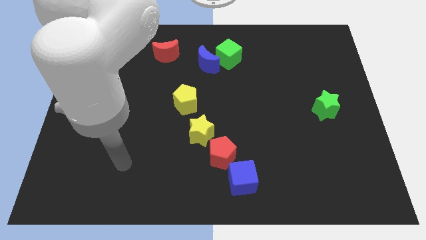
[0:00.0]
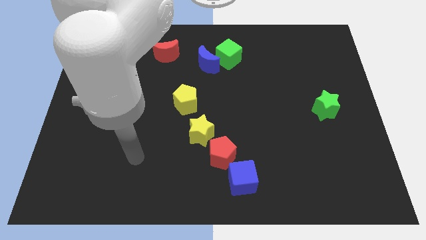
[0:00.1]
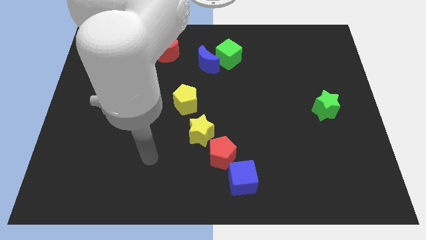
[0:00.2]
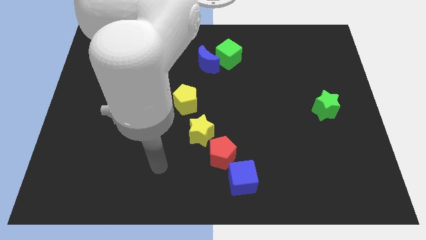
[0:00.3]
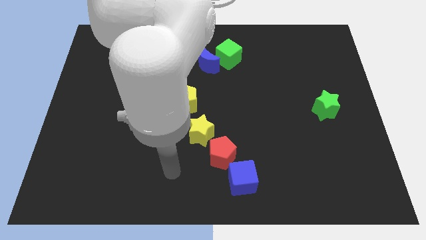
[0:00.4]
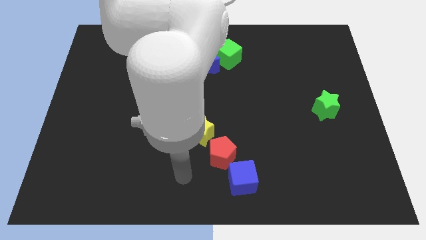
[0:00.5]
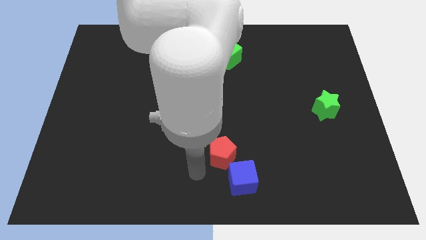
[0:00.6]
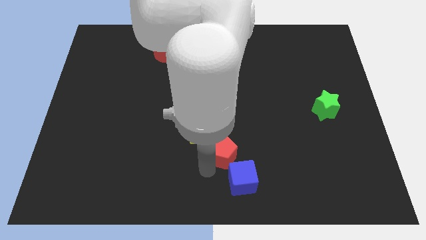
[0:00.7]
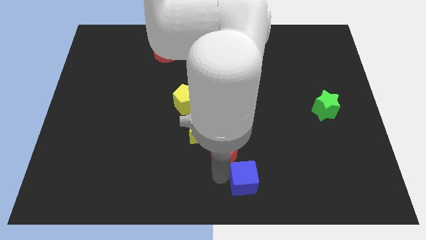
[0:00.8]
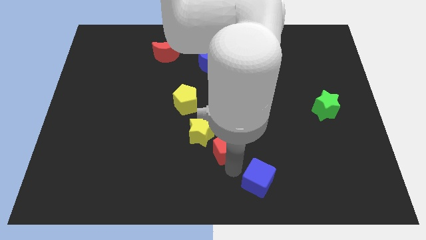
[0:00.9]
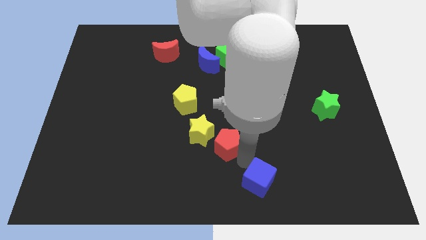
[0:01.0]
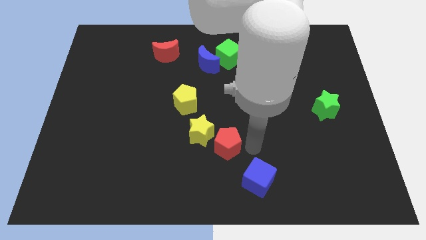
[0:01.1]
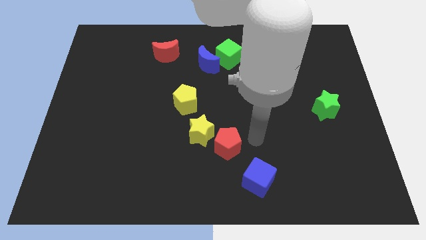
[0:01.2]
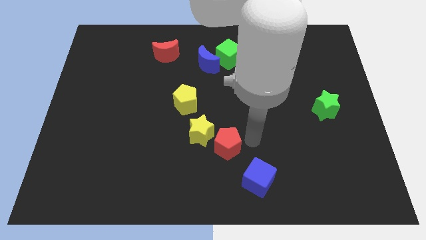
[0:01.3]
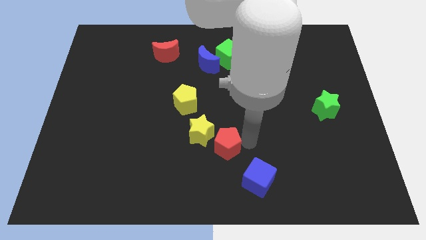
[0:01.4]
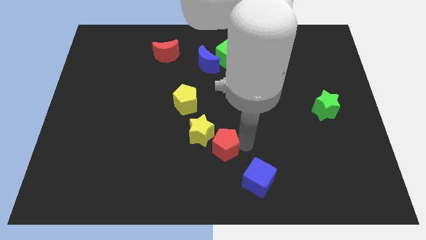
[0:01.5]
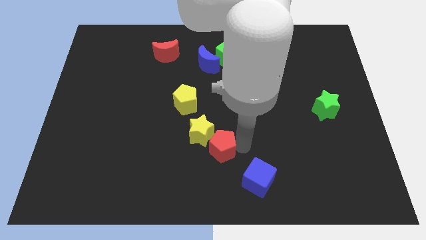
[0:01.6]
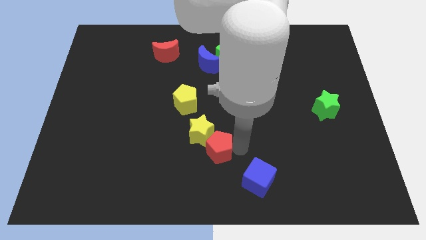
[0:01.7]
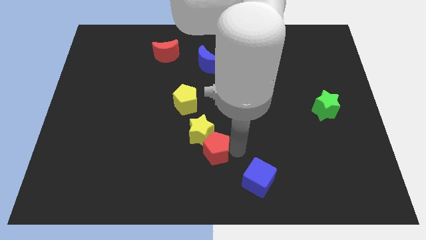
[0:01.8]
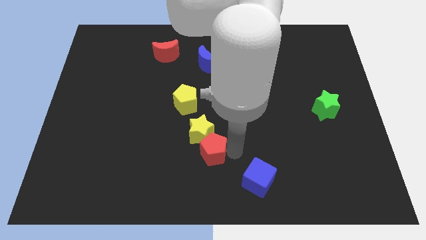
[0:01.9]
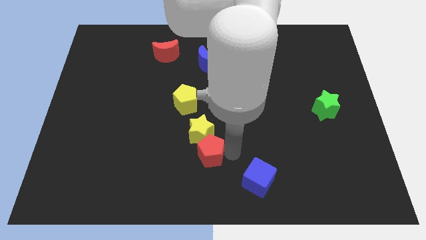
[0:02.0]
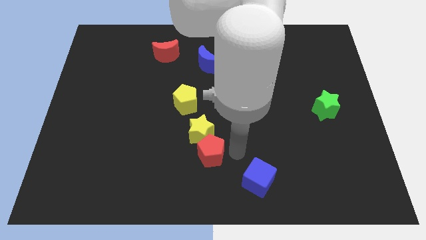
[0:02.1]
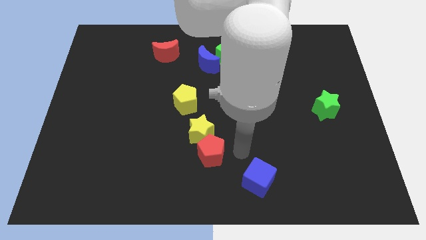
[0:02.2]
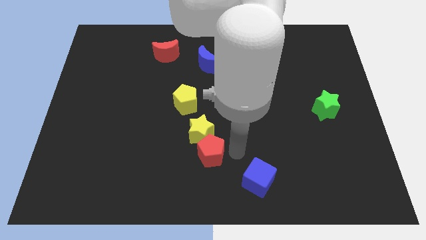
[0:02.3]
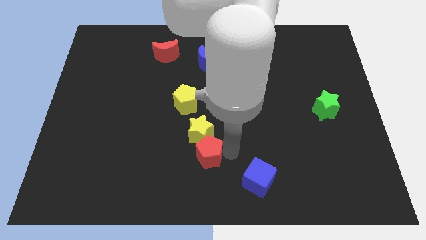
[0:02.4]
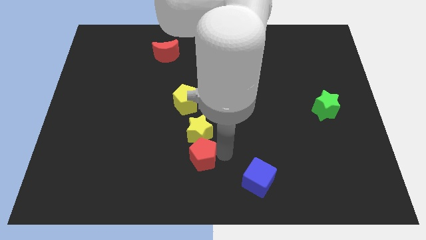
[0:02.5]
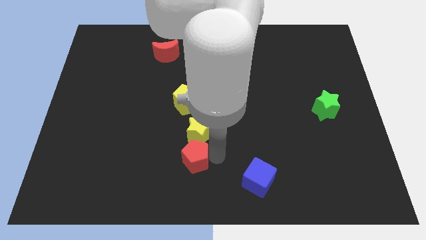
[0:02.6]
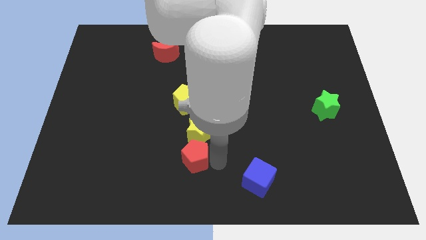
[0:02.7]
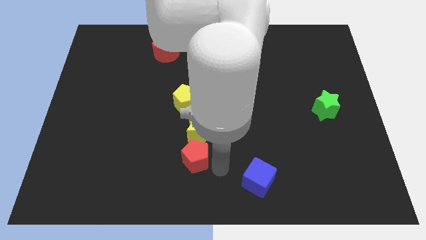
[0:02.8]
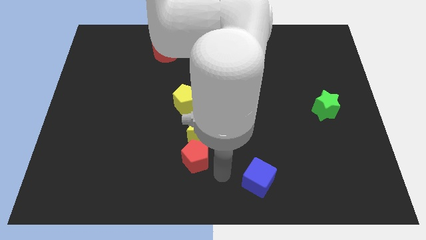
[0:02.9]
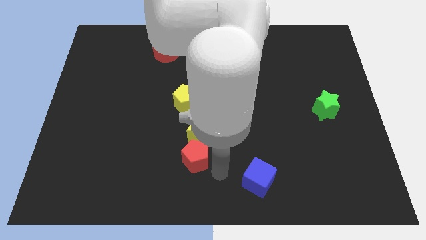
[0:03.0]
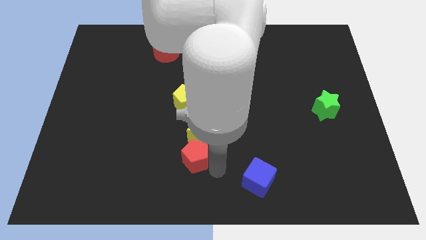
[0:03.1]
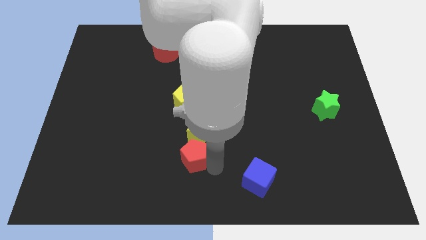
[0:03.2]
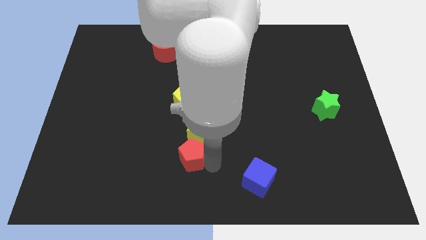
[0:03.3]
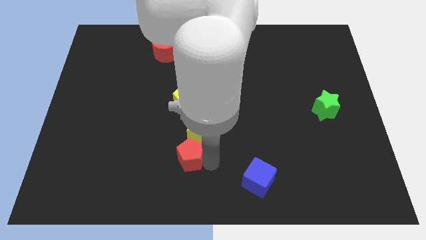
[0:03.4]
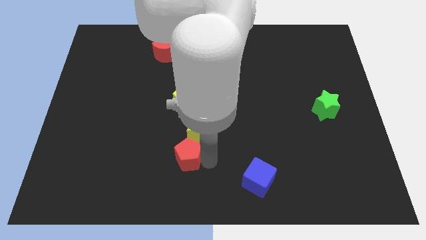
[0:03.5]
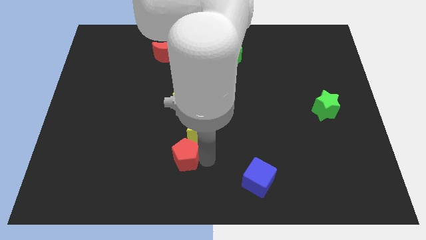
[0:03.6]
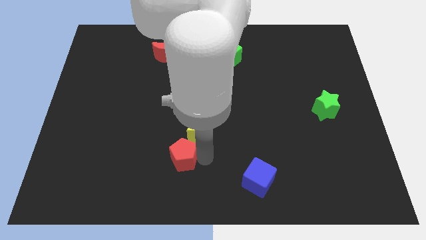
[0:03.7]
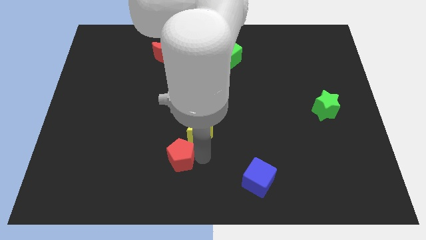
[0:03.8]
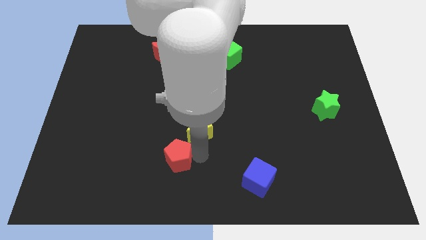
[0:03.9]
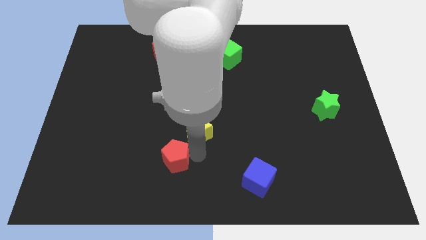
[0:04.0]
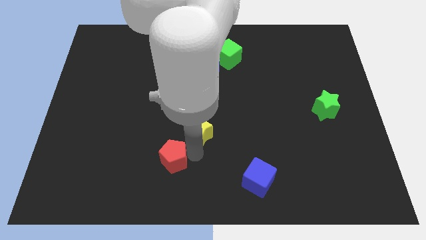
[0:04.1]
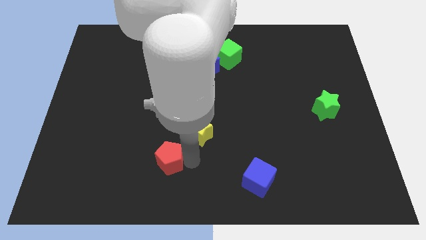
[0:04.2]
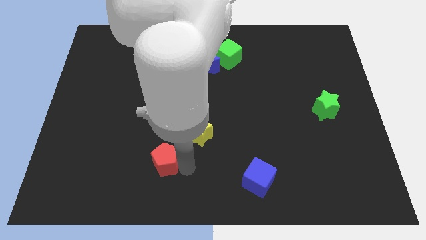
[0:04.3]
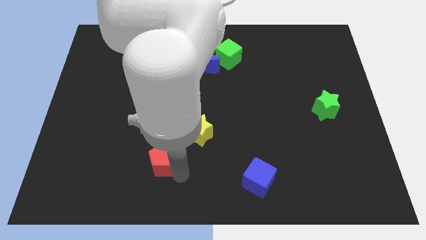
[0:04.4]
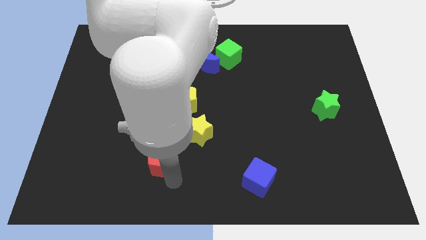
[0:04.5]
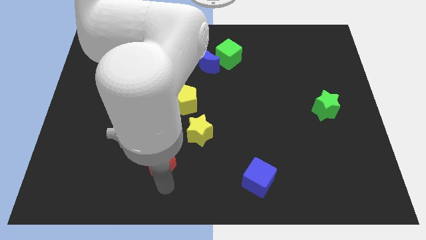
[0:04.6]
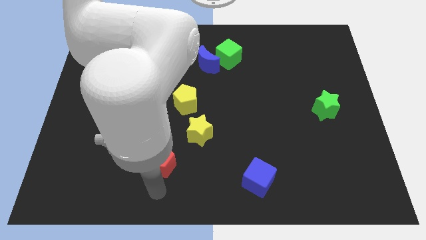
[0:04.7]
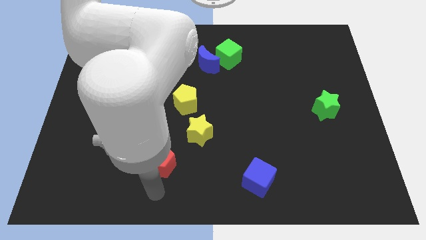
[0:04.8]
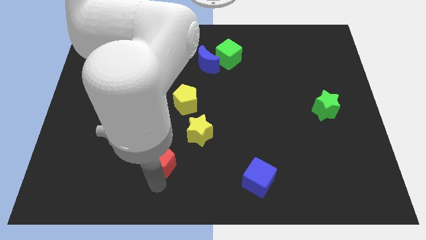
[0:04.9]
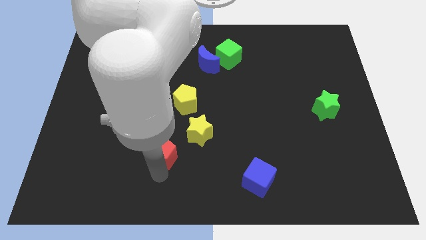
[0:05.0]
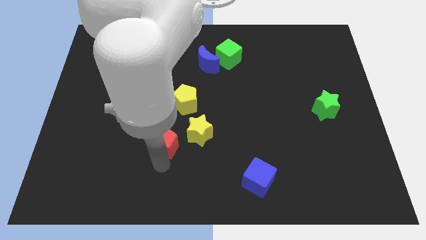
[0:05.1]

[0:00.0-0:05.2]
slightly push the red pentagon upwards and to the left

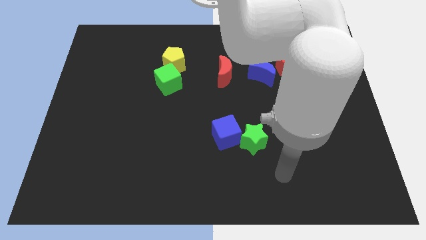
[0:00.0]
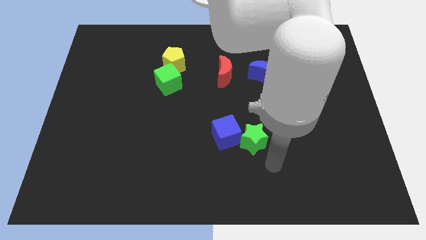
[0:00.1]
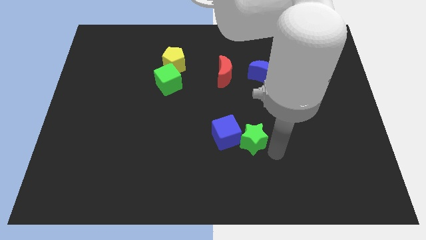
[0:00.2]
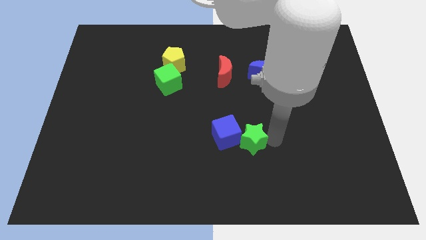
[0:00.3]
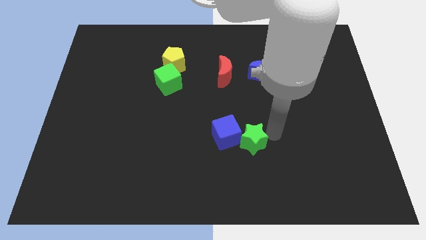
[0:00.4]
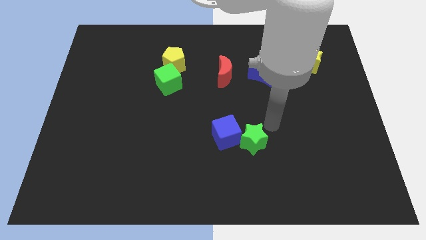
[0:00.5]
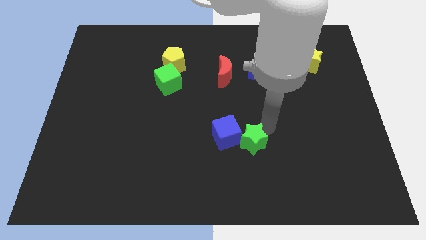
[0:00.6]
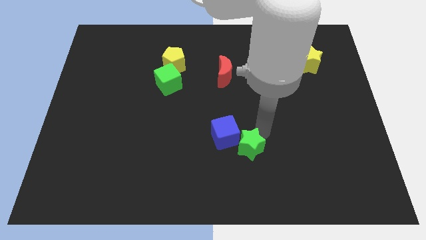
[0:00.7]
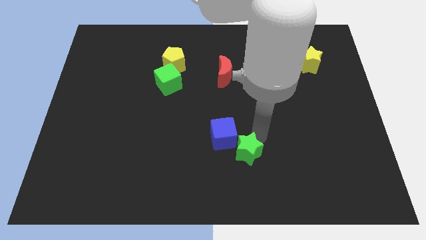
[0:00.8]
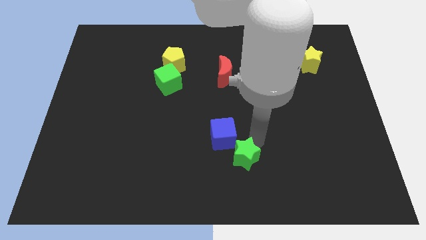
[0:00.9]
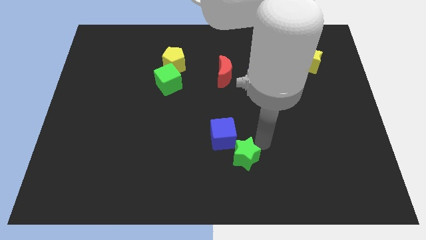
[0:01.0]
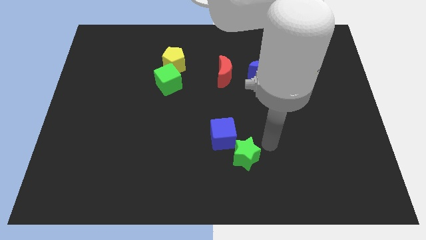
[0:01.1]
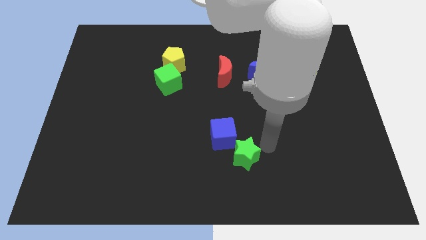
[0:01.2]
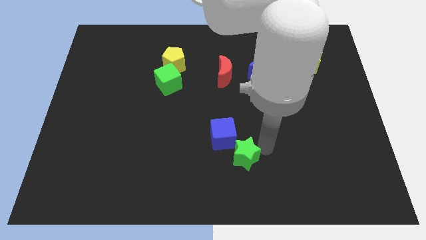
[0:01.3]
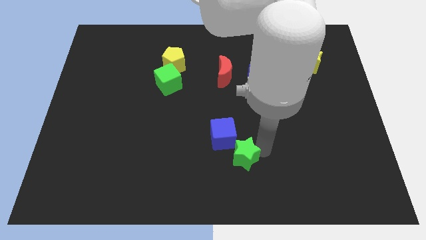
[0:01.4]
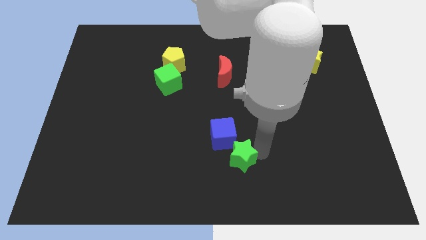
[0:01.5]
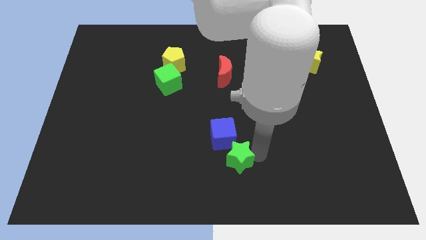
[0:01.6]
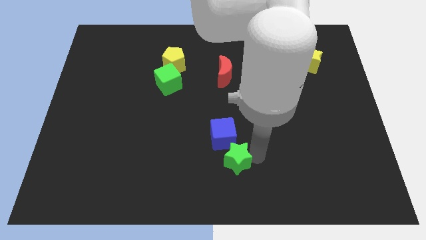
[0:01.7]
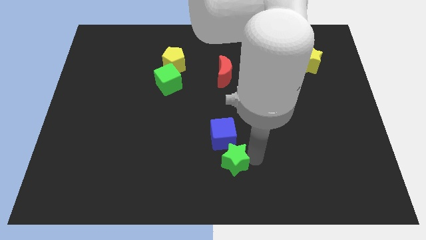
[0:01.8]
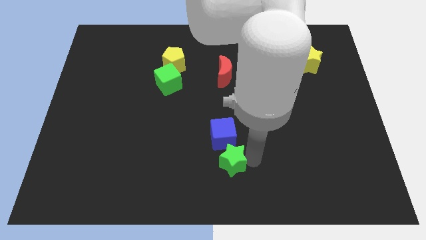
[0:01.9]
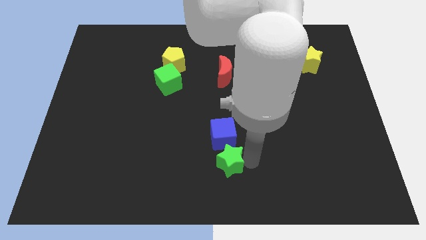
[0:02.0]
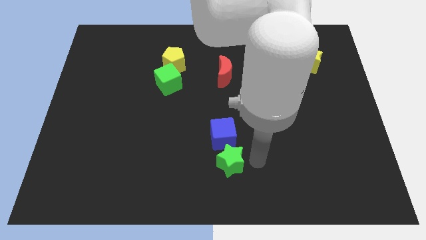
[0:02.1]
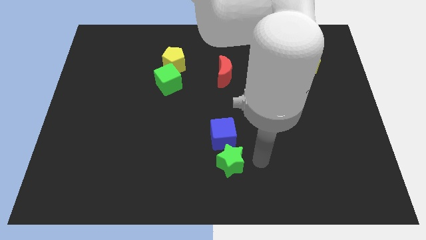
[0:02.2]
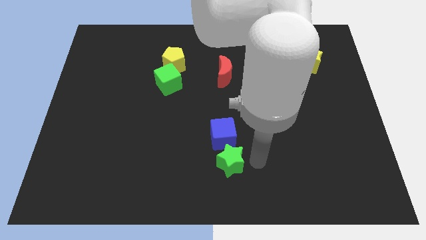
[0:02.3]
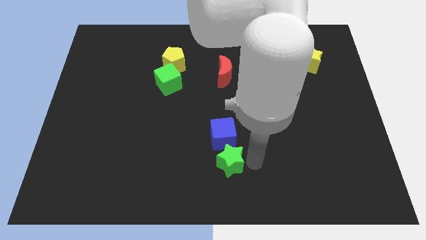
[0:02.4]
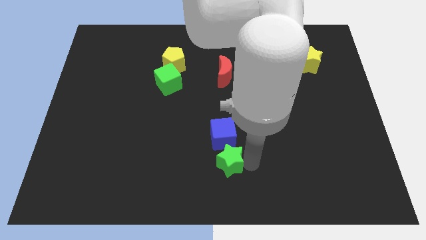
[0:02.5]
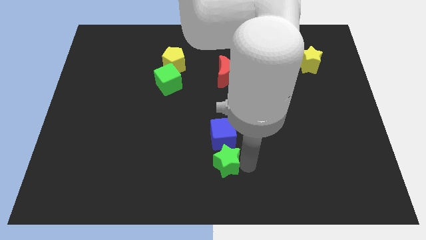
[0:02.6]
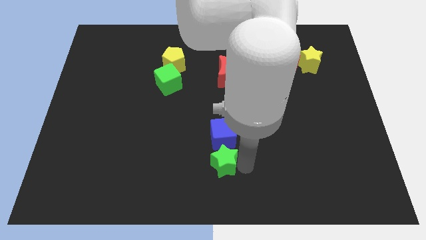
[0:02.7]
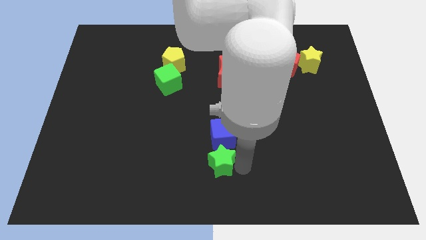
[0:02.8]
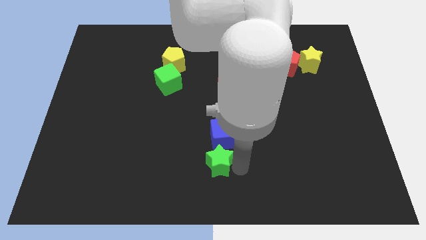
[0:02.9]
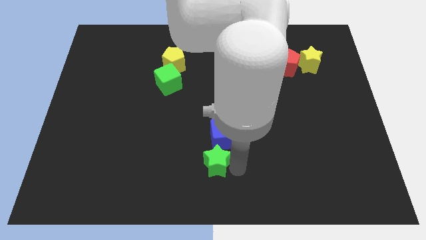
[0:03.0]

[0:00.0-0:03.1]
move the green star somewhat left
